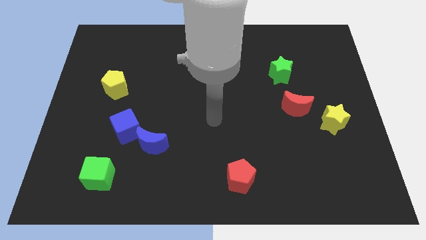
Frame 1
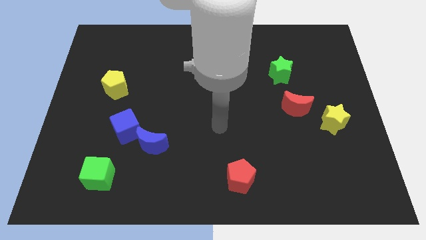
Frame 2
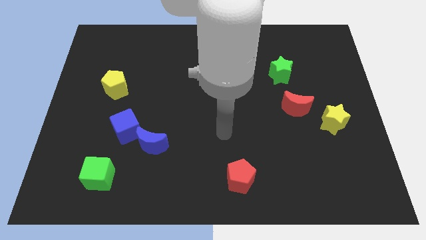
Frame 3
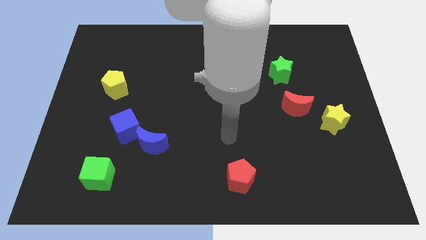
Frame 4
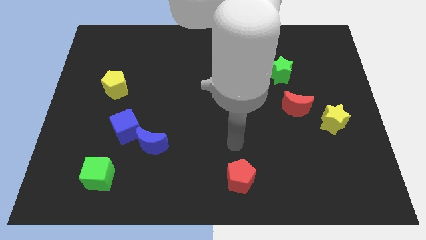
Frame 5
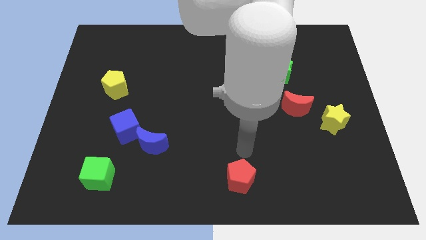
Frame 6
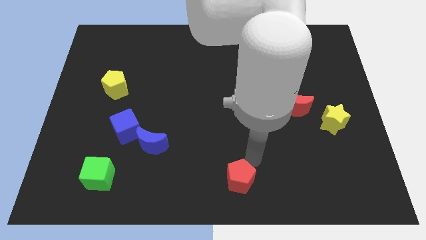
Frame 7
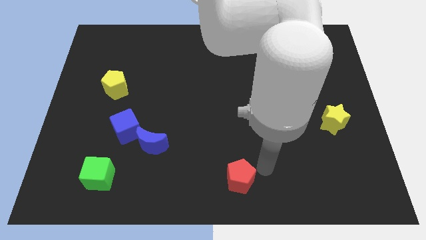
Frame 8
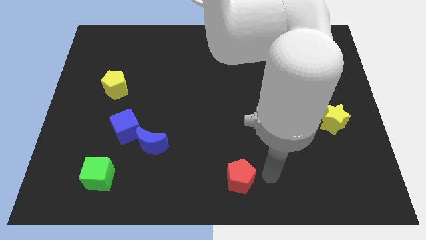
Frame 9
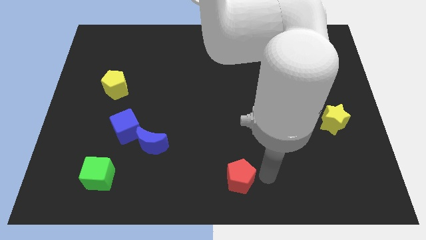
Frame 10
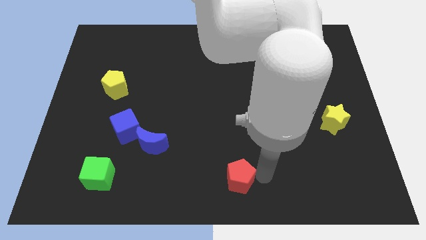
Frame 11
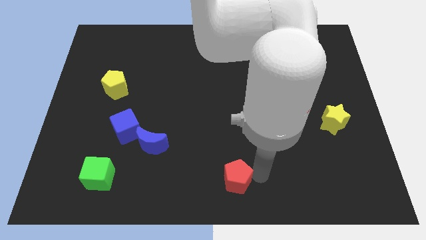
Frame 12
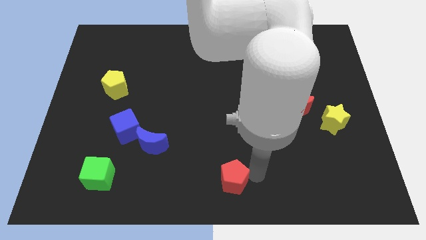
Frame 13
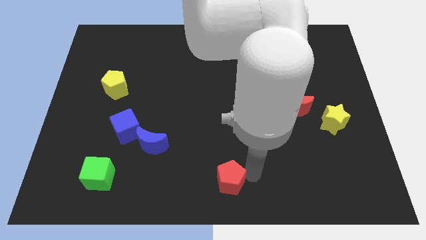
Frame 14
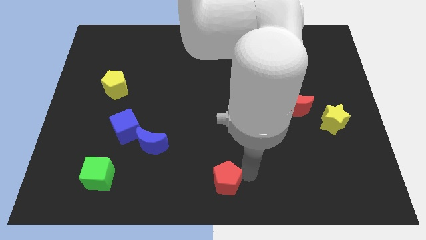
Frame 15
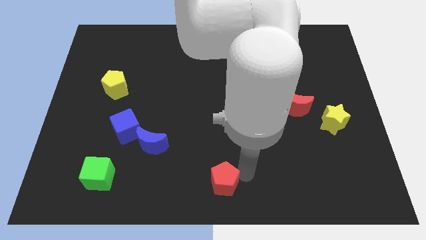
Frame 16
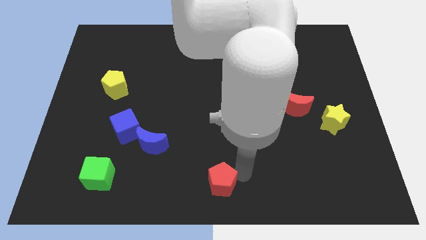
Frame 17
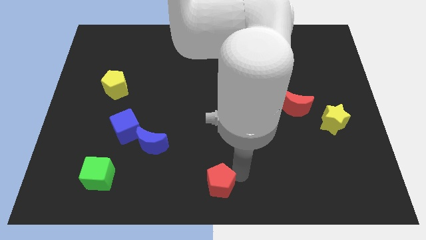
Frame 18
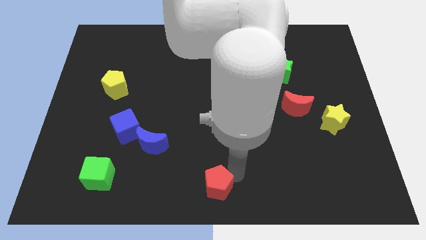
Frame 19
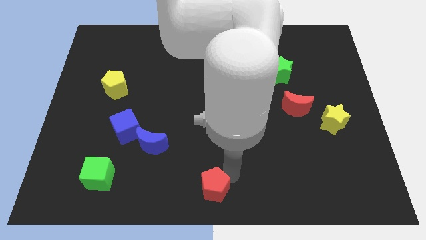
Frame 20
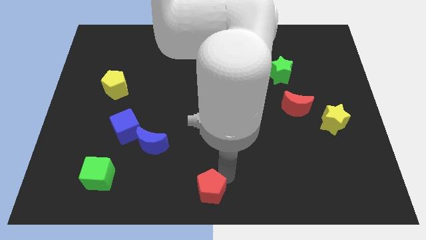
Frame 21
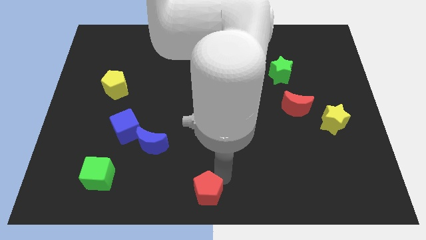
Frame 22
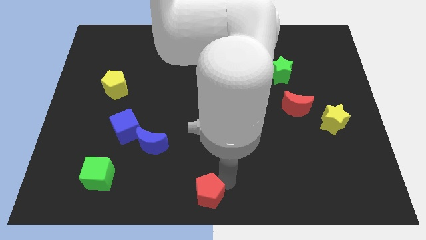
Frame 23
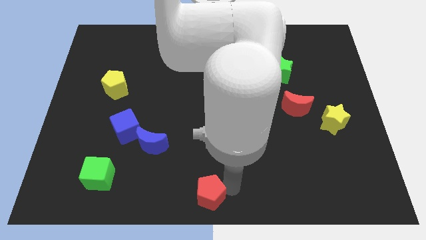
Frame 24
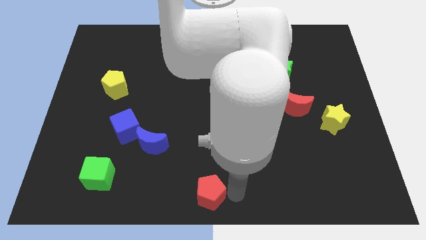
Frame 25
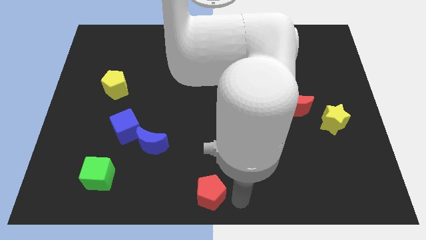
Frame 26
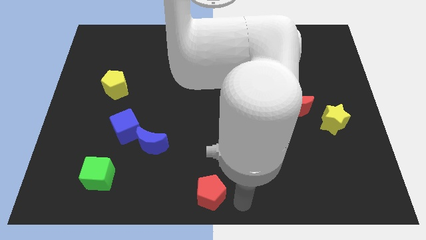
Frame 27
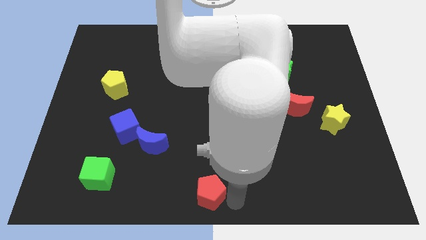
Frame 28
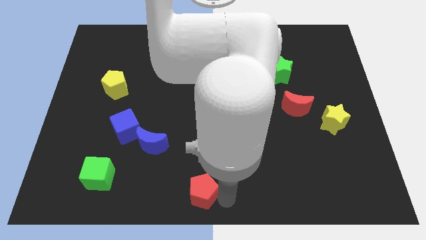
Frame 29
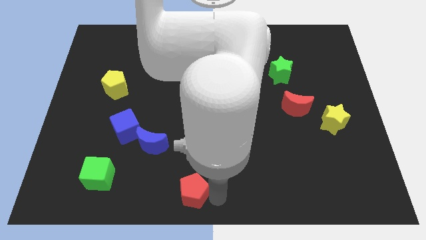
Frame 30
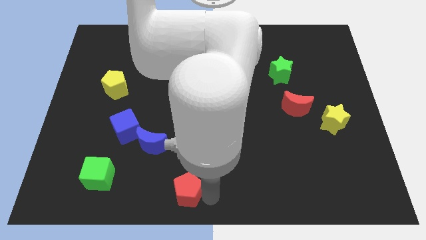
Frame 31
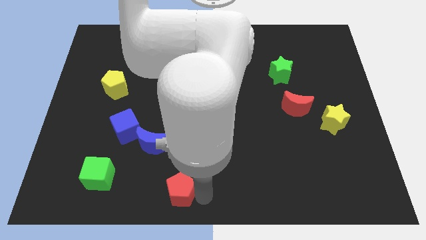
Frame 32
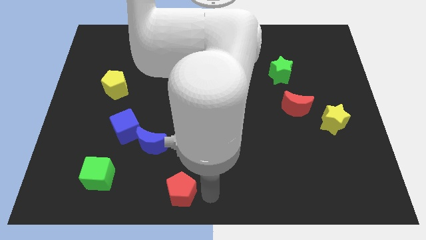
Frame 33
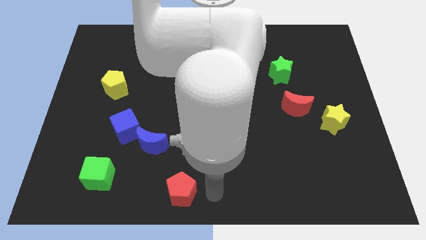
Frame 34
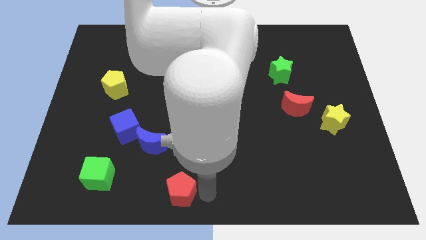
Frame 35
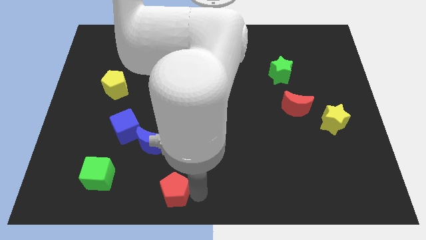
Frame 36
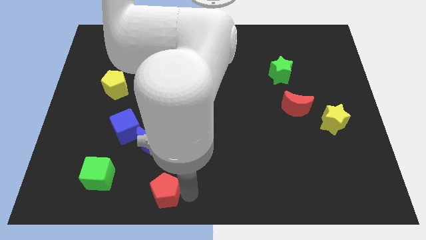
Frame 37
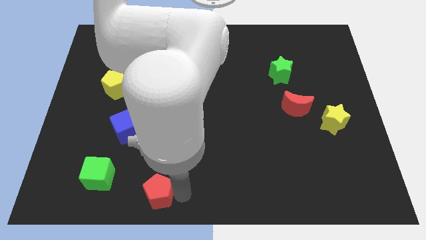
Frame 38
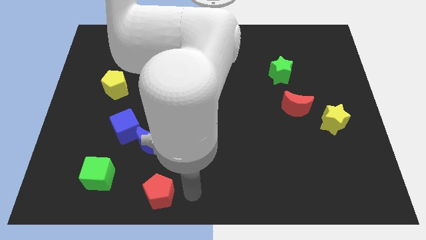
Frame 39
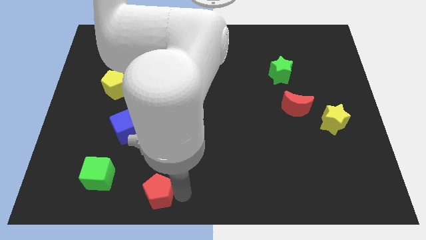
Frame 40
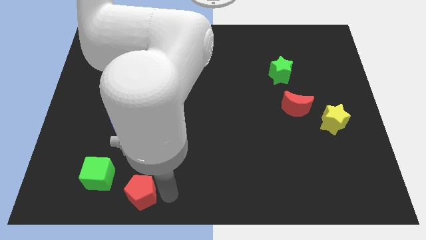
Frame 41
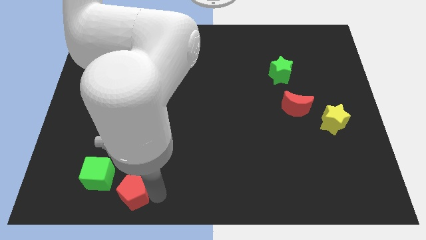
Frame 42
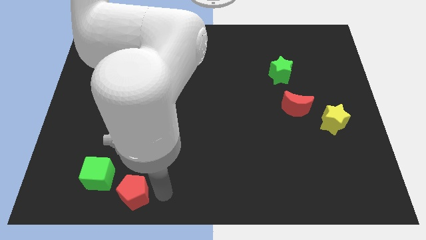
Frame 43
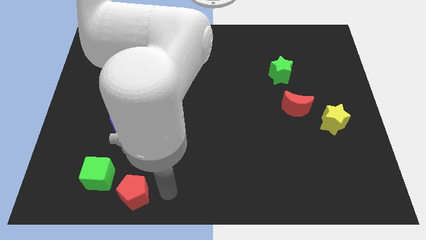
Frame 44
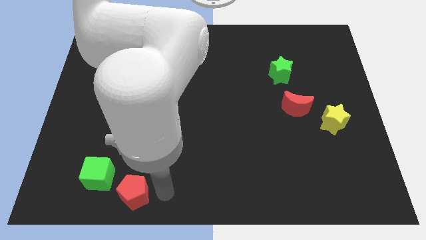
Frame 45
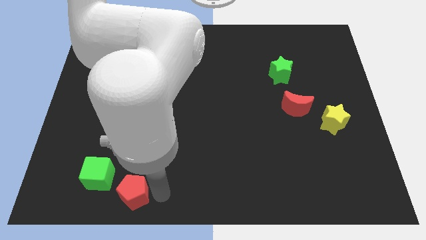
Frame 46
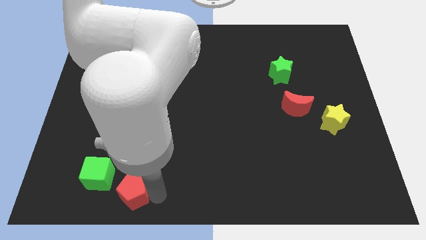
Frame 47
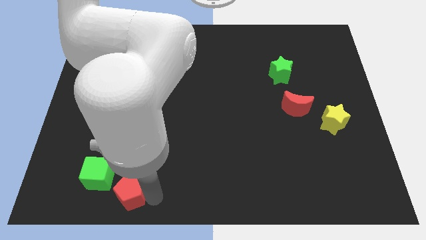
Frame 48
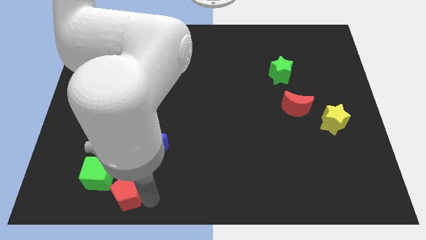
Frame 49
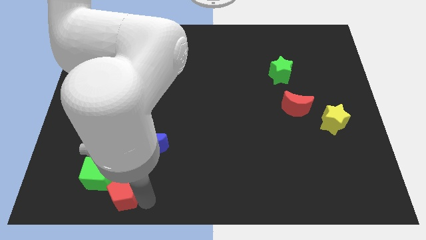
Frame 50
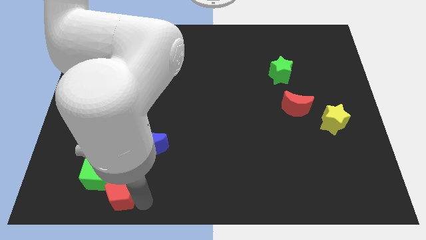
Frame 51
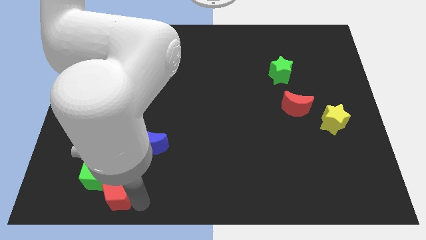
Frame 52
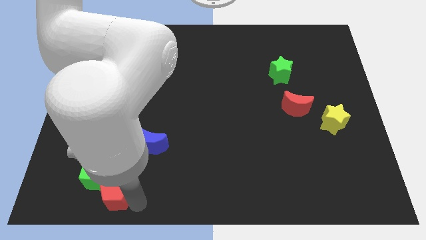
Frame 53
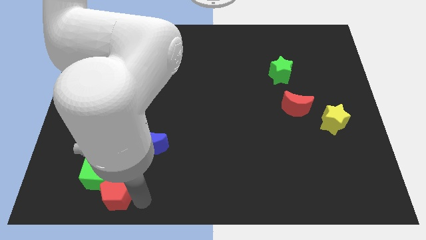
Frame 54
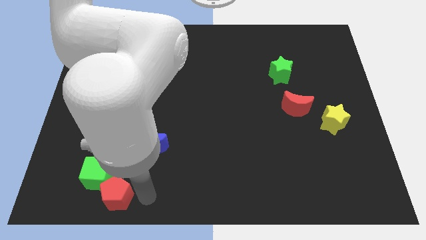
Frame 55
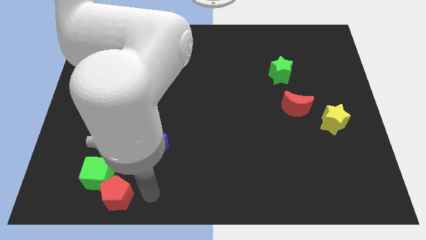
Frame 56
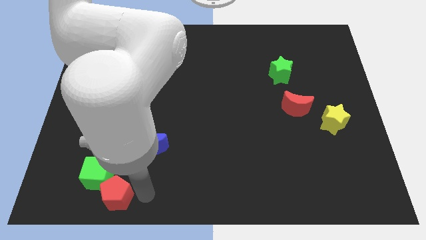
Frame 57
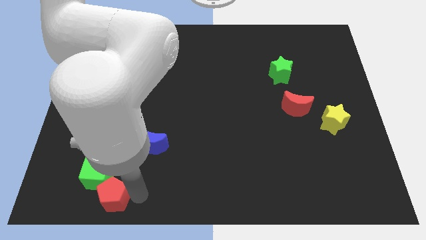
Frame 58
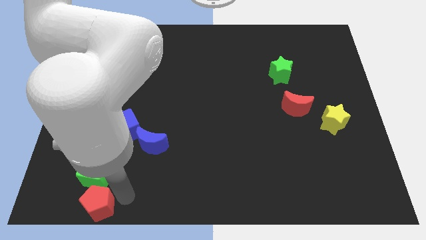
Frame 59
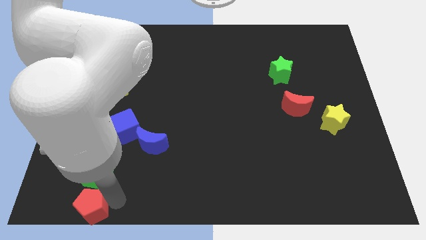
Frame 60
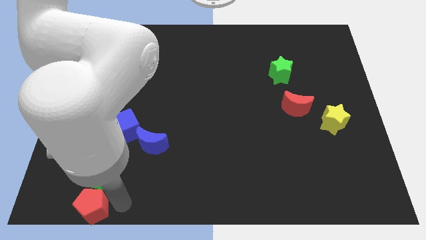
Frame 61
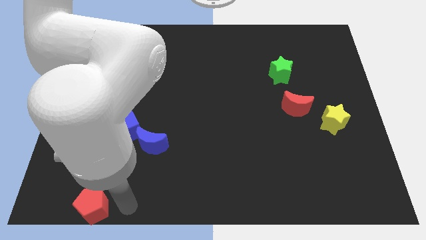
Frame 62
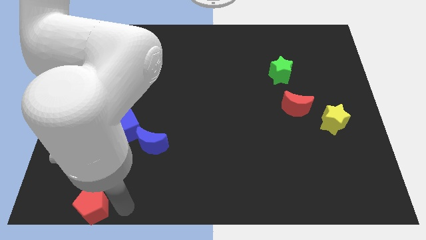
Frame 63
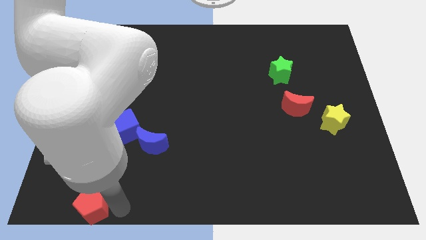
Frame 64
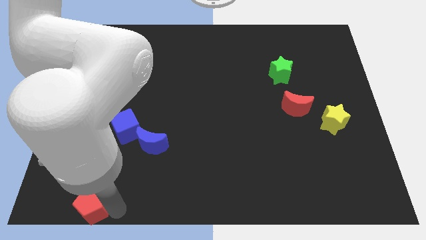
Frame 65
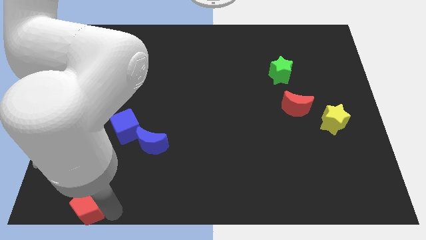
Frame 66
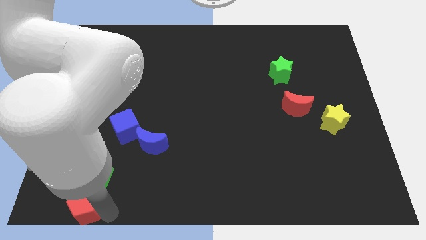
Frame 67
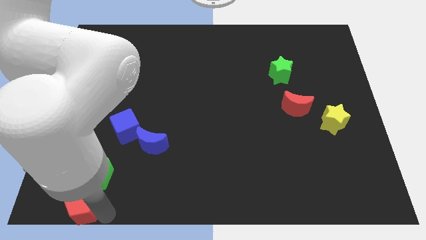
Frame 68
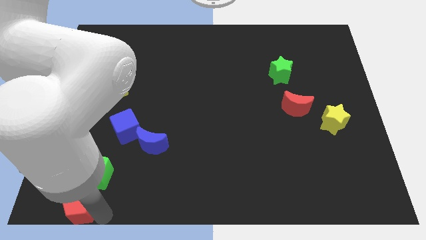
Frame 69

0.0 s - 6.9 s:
slide the red pentagon to the bottom left corner

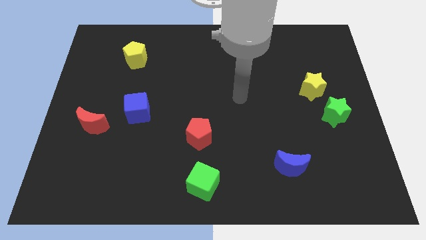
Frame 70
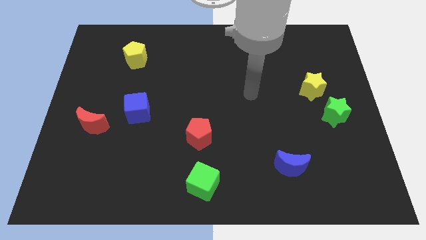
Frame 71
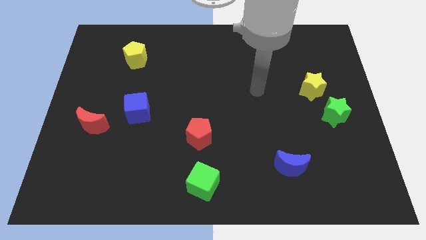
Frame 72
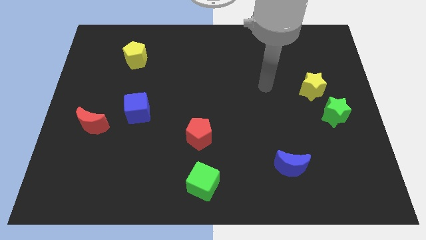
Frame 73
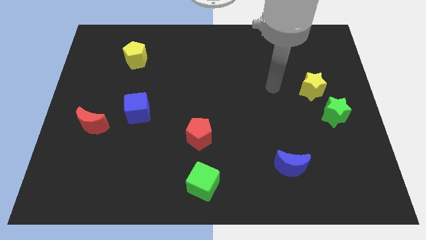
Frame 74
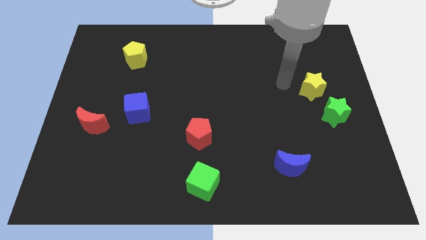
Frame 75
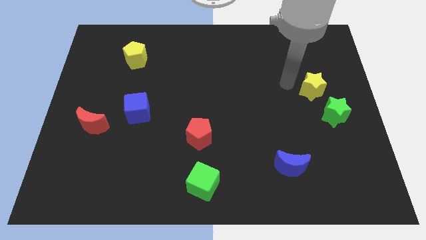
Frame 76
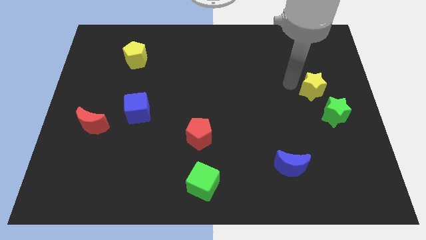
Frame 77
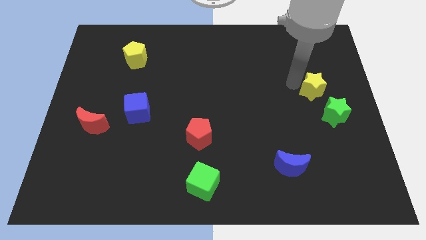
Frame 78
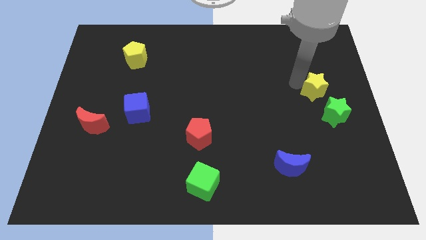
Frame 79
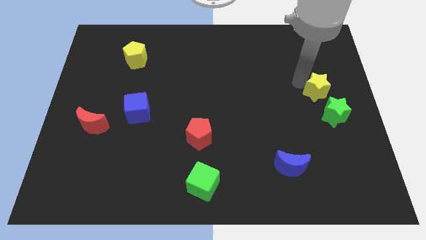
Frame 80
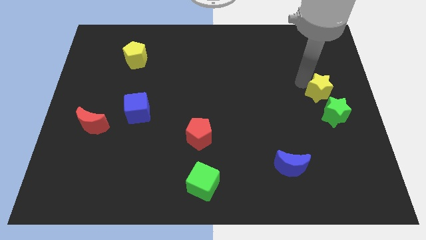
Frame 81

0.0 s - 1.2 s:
push the yellow star to the right side of the board
